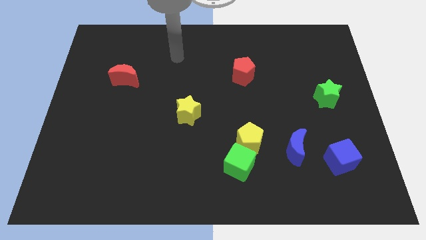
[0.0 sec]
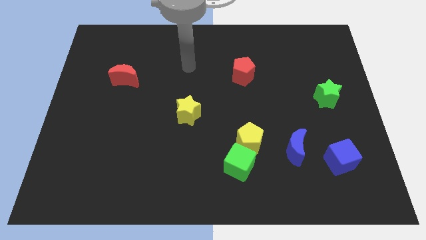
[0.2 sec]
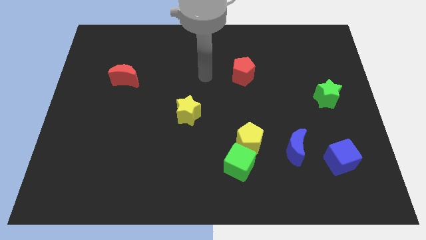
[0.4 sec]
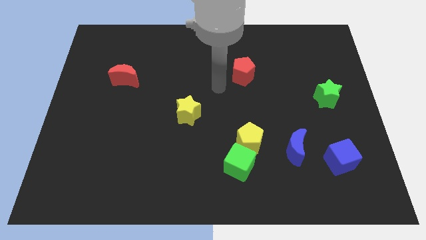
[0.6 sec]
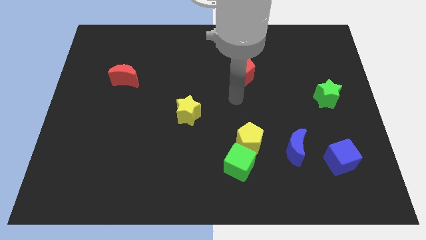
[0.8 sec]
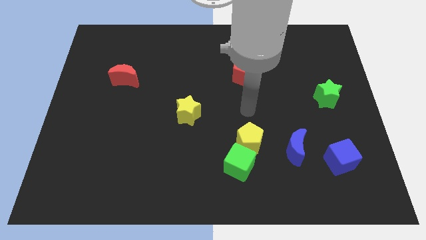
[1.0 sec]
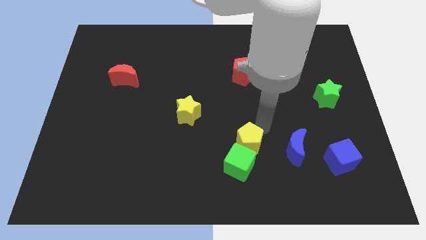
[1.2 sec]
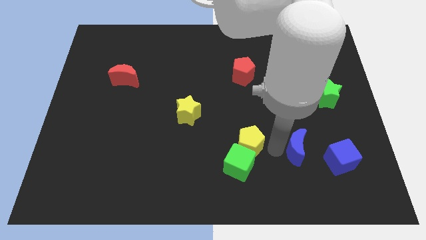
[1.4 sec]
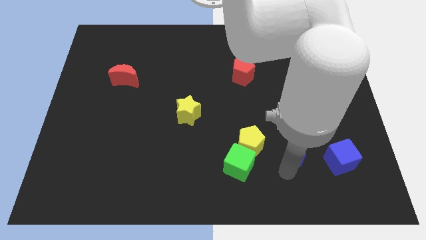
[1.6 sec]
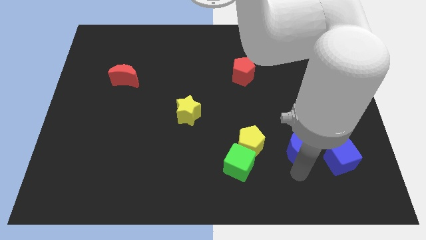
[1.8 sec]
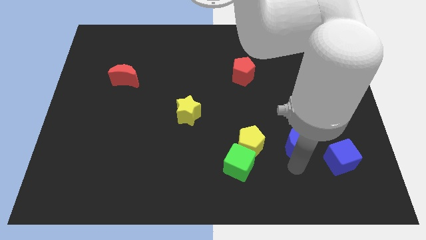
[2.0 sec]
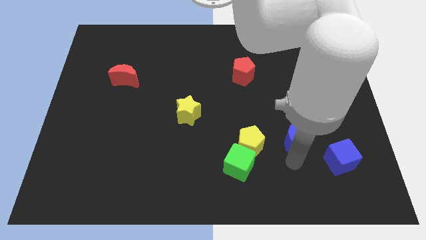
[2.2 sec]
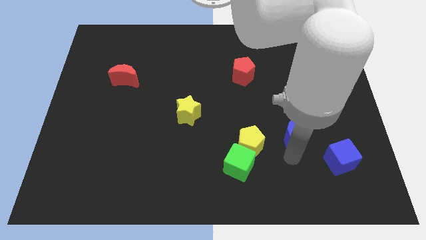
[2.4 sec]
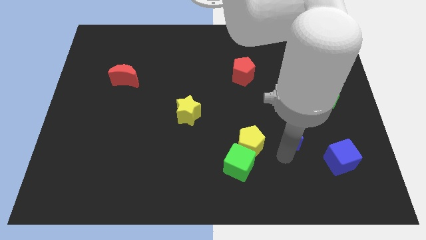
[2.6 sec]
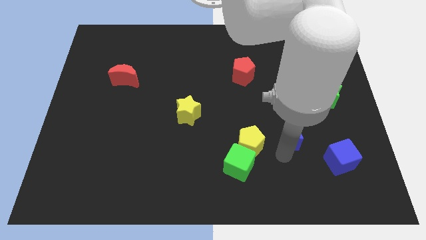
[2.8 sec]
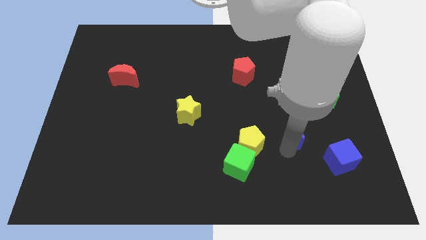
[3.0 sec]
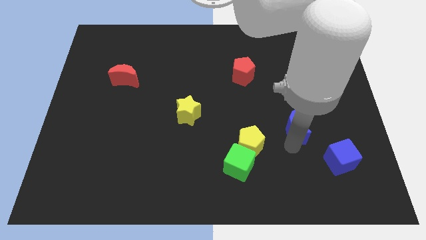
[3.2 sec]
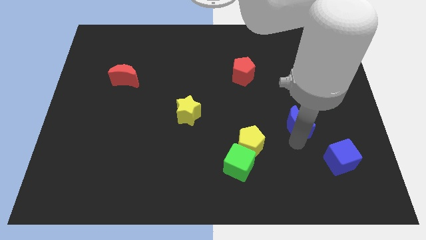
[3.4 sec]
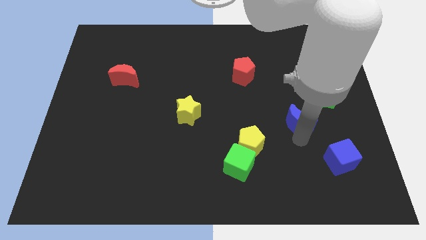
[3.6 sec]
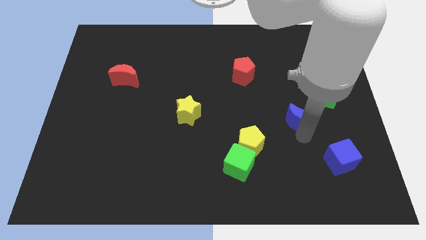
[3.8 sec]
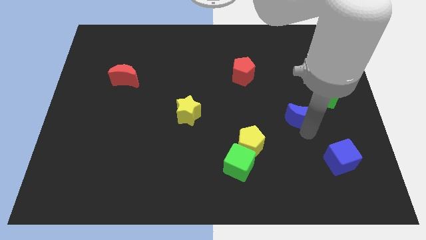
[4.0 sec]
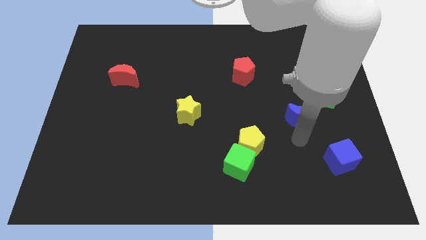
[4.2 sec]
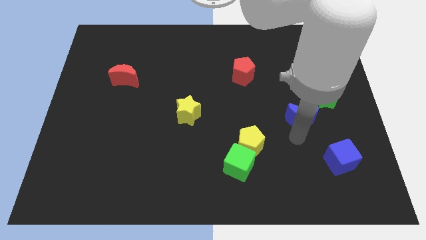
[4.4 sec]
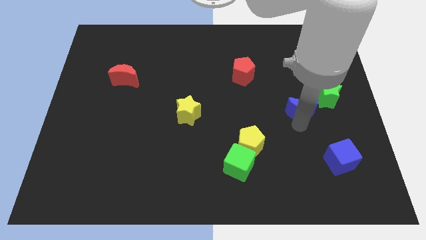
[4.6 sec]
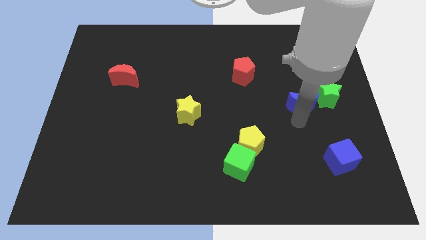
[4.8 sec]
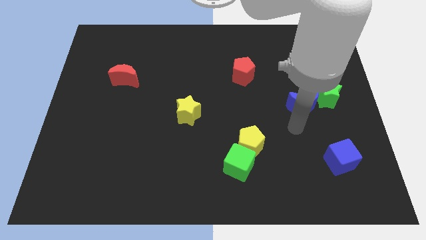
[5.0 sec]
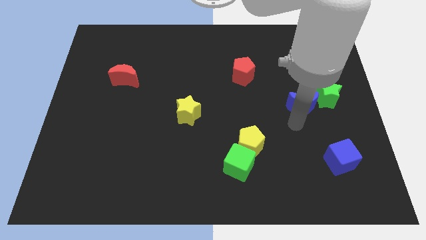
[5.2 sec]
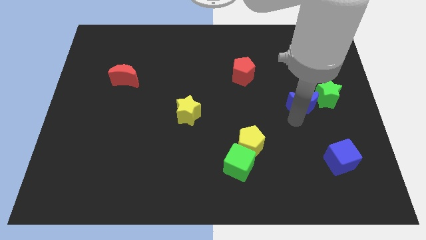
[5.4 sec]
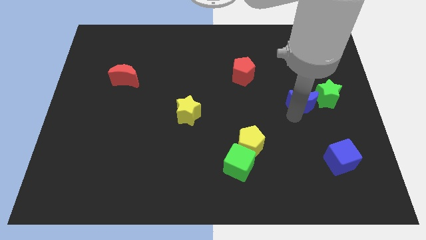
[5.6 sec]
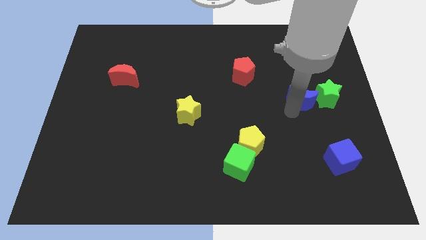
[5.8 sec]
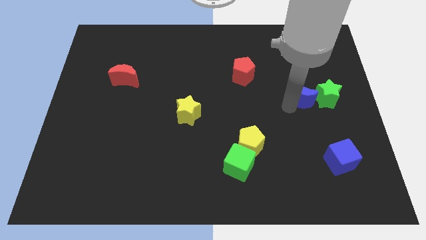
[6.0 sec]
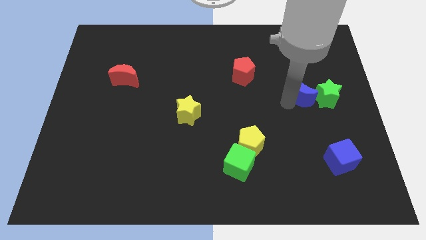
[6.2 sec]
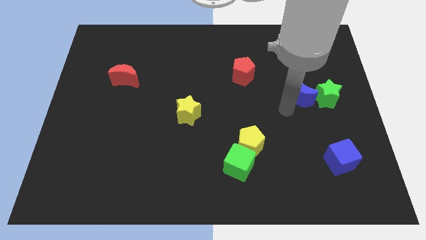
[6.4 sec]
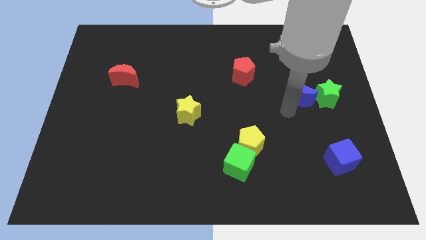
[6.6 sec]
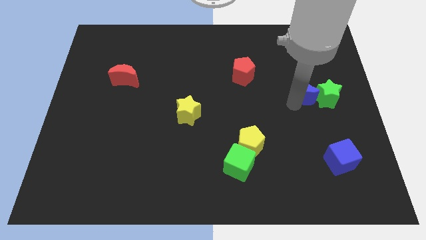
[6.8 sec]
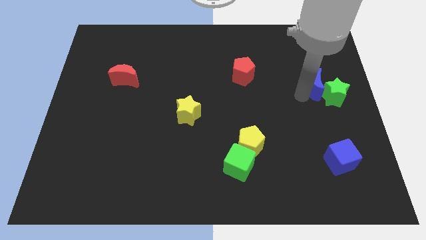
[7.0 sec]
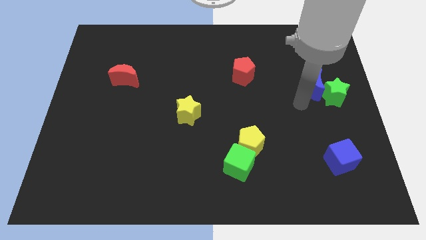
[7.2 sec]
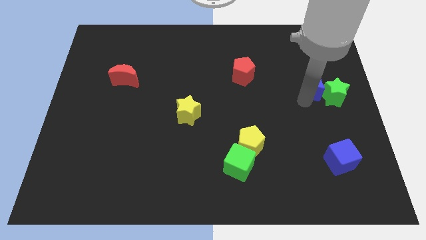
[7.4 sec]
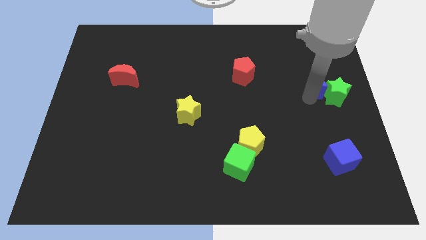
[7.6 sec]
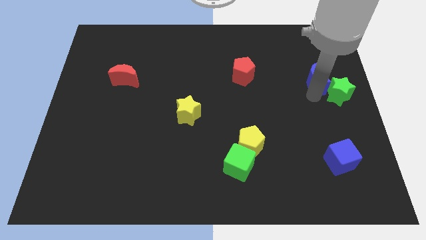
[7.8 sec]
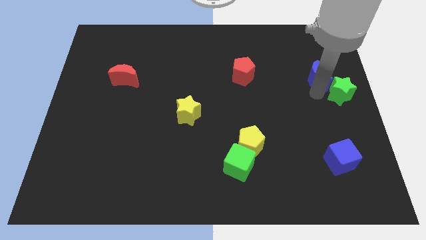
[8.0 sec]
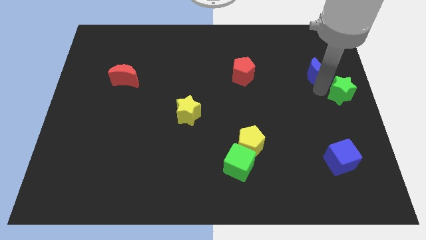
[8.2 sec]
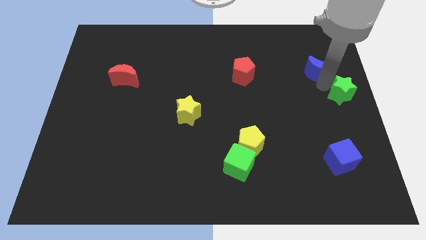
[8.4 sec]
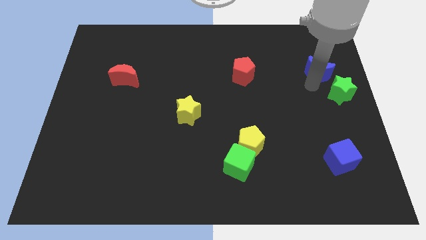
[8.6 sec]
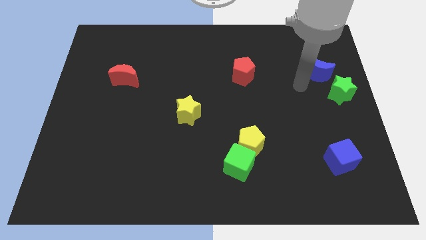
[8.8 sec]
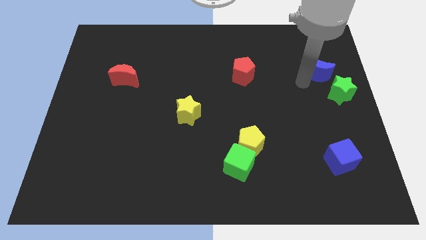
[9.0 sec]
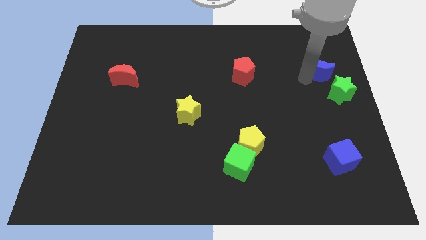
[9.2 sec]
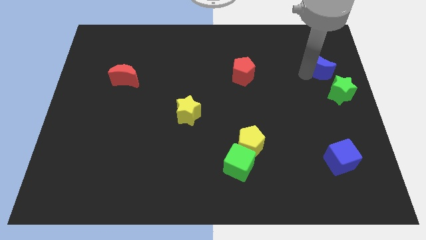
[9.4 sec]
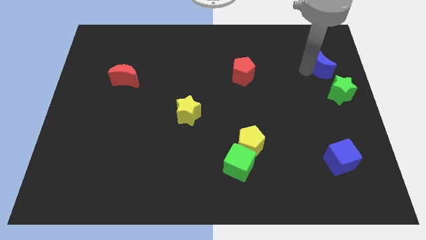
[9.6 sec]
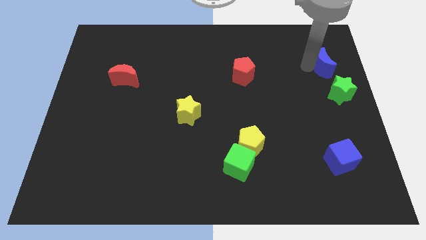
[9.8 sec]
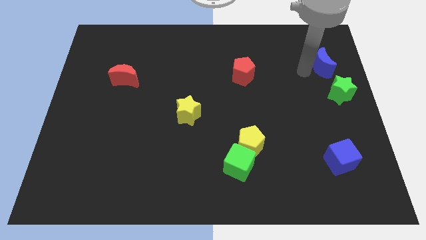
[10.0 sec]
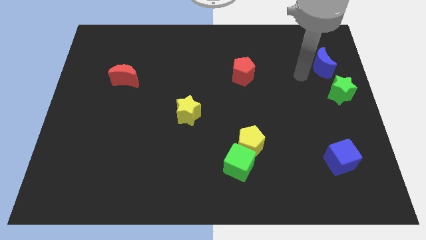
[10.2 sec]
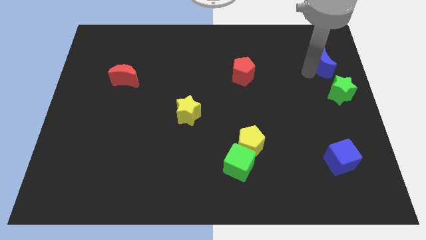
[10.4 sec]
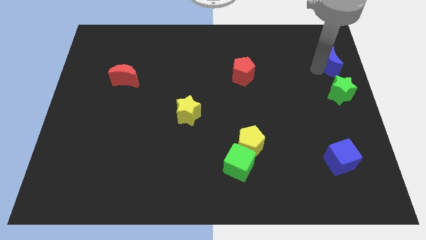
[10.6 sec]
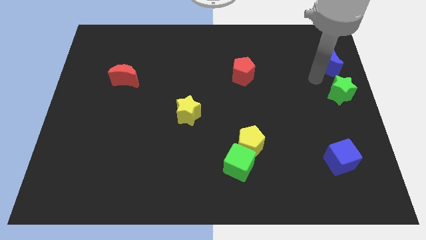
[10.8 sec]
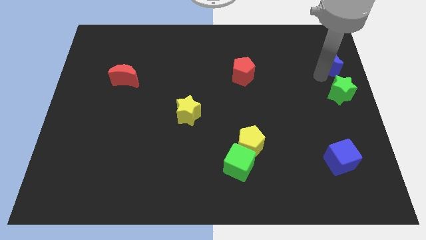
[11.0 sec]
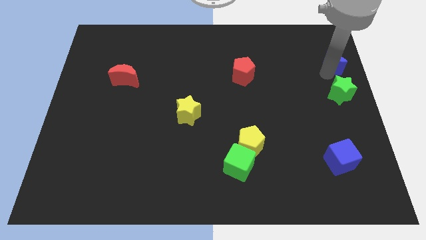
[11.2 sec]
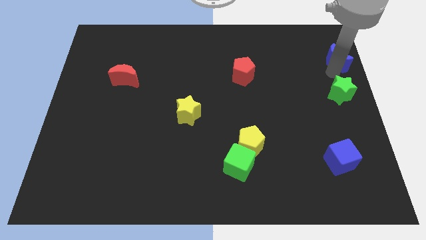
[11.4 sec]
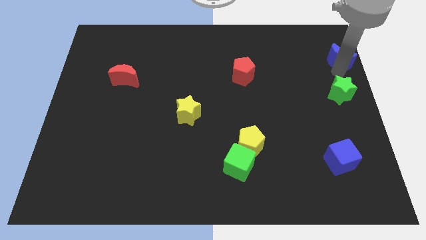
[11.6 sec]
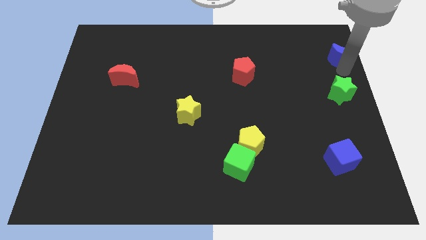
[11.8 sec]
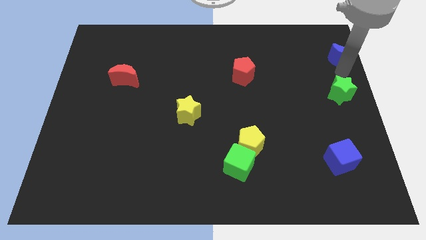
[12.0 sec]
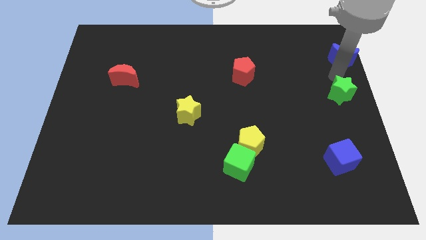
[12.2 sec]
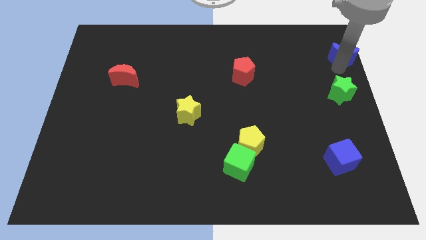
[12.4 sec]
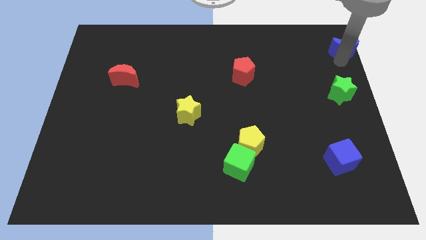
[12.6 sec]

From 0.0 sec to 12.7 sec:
move the blue moon to the top right of the board
